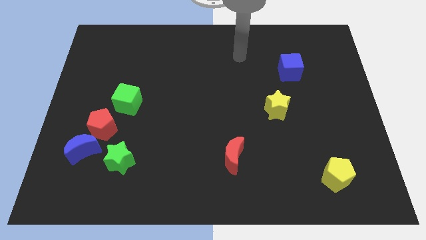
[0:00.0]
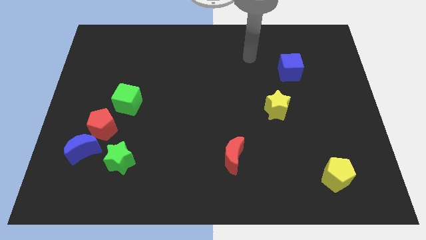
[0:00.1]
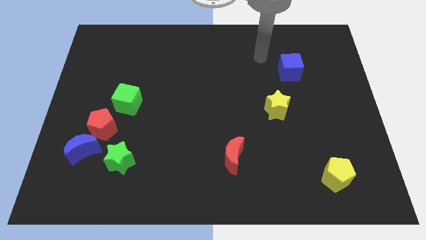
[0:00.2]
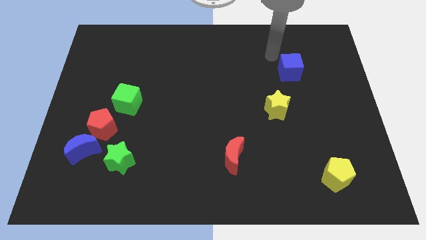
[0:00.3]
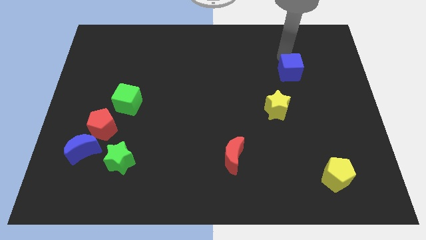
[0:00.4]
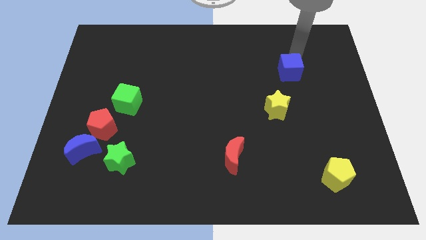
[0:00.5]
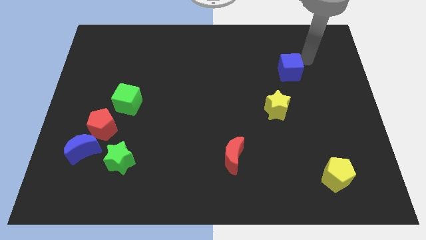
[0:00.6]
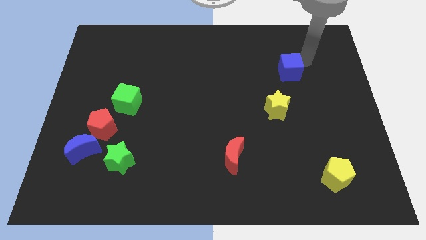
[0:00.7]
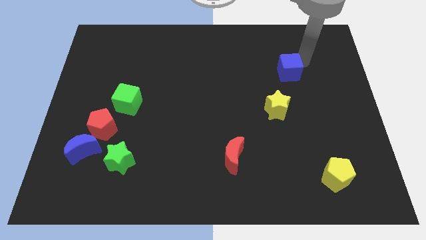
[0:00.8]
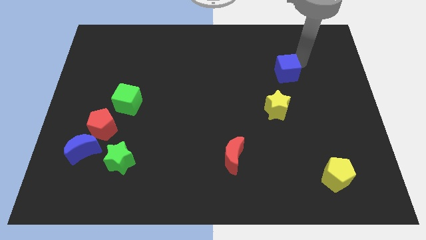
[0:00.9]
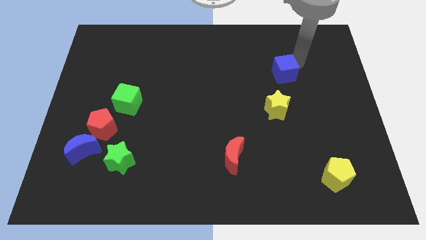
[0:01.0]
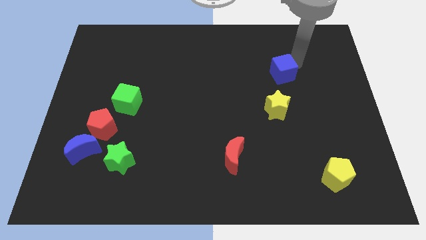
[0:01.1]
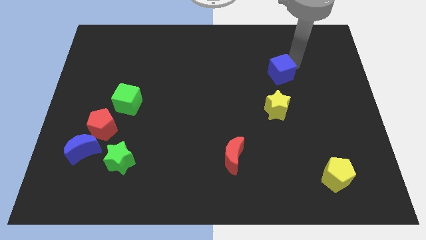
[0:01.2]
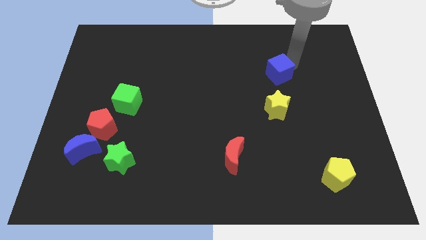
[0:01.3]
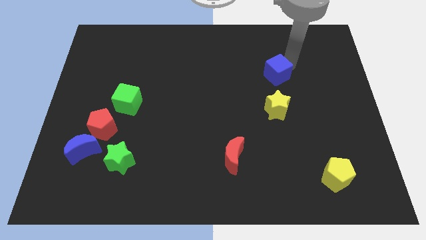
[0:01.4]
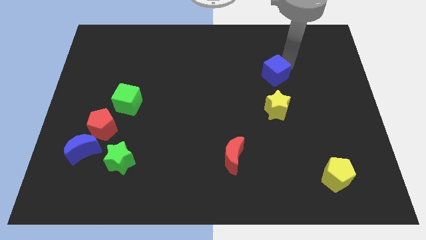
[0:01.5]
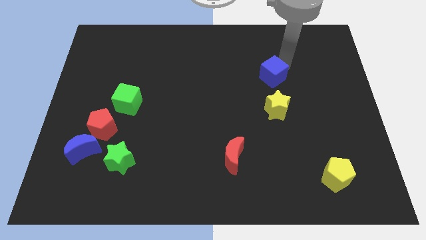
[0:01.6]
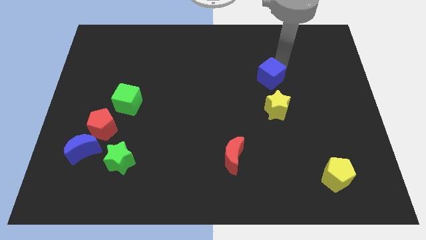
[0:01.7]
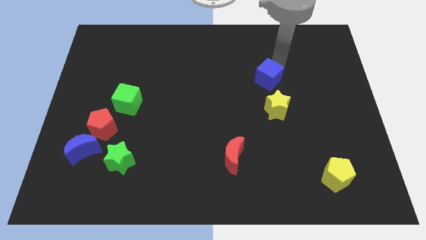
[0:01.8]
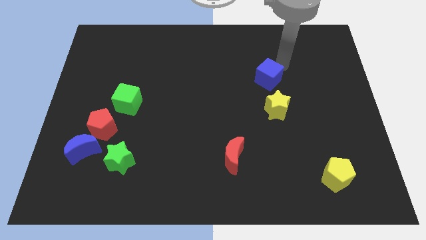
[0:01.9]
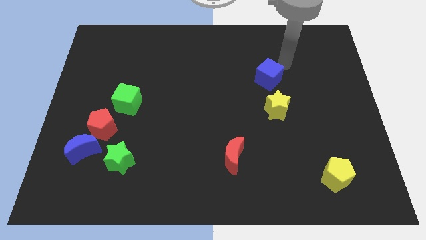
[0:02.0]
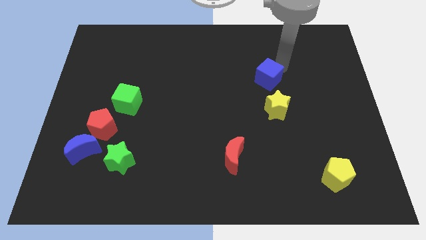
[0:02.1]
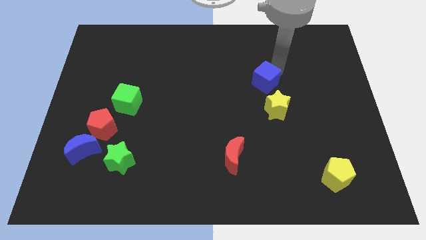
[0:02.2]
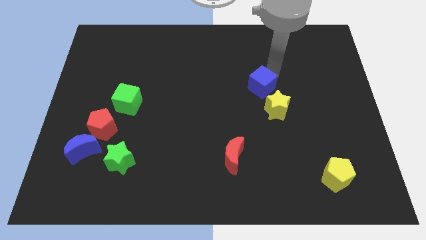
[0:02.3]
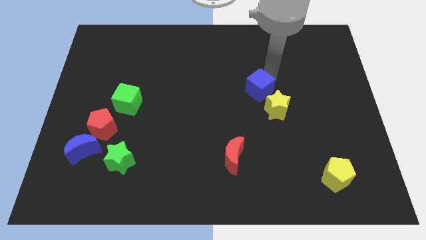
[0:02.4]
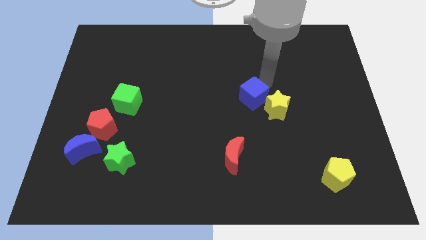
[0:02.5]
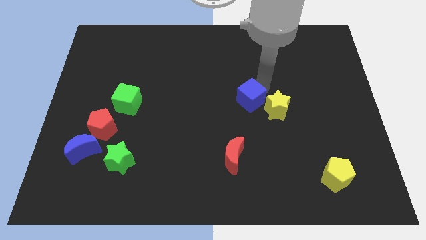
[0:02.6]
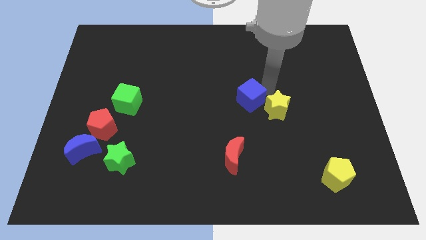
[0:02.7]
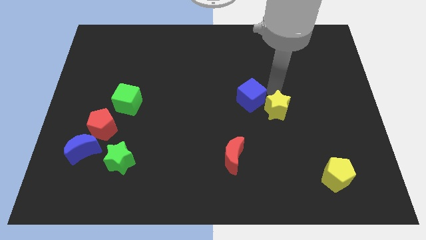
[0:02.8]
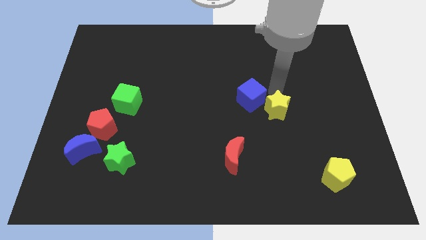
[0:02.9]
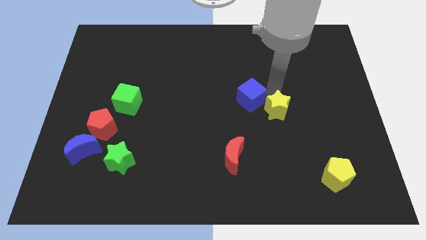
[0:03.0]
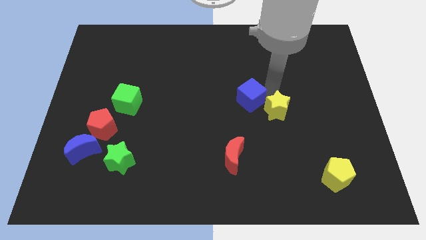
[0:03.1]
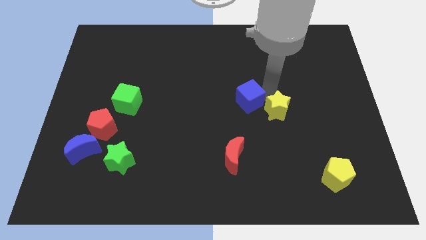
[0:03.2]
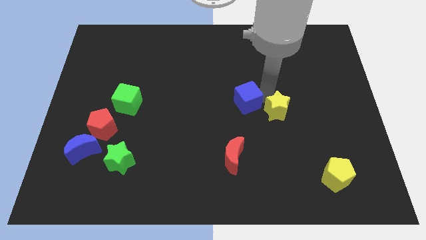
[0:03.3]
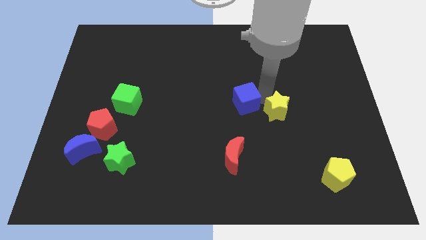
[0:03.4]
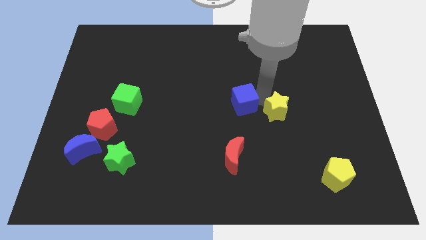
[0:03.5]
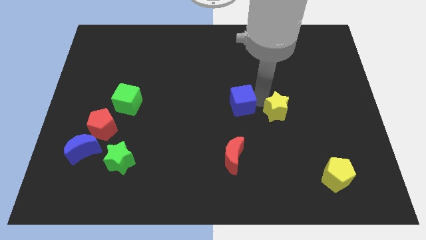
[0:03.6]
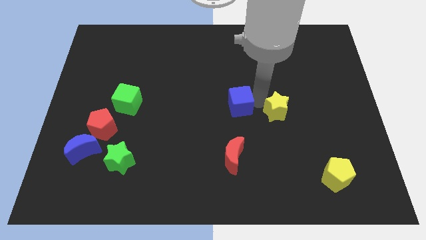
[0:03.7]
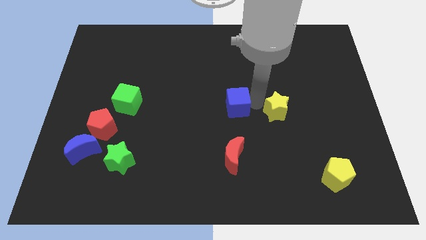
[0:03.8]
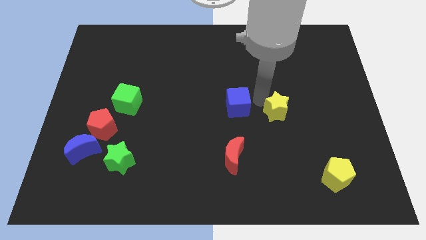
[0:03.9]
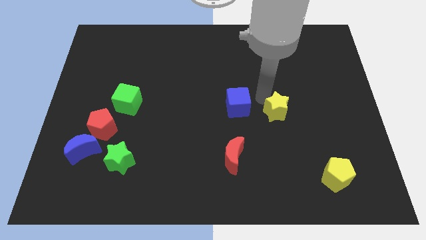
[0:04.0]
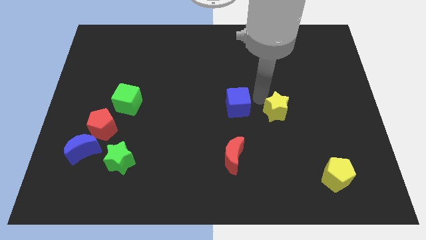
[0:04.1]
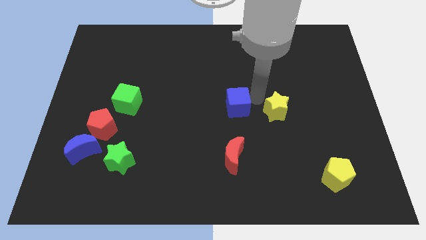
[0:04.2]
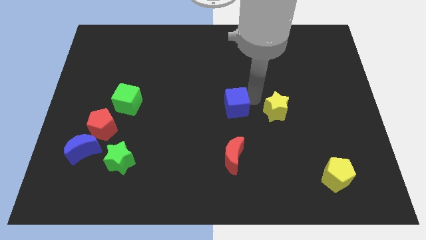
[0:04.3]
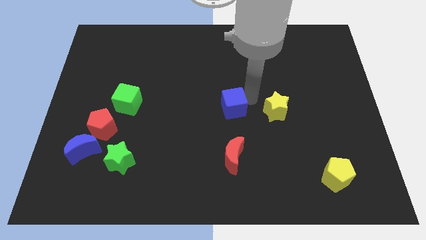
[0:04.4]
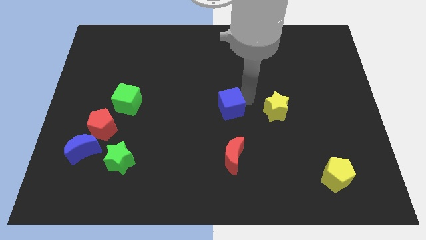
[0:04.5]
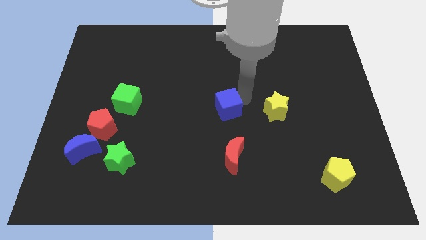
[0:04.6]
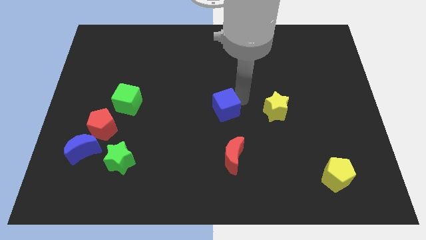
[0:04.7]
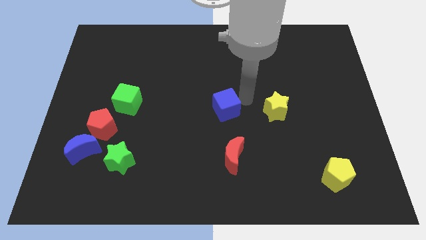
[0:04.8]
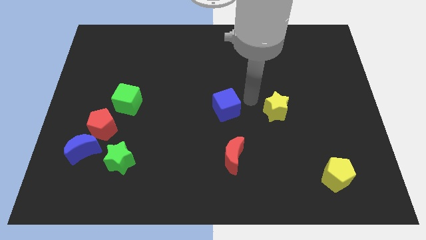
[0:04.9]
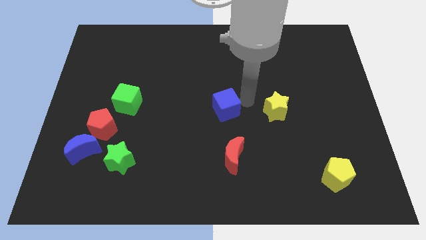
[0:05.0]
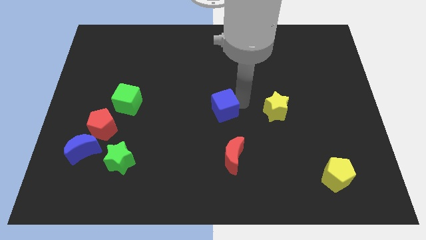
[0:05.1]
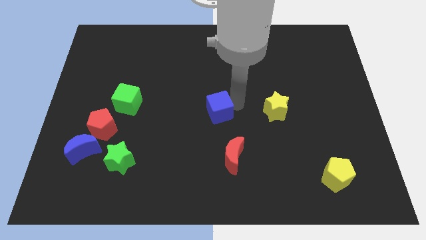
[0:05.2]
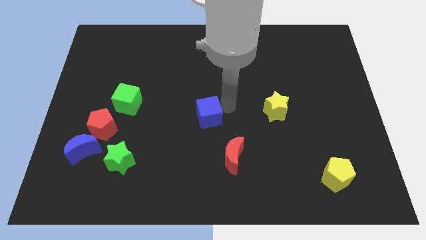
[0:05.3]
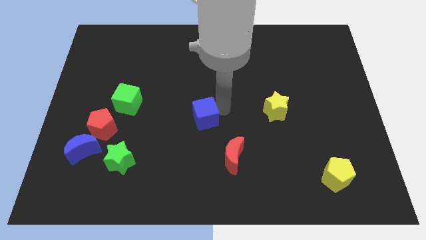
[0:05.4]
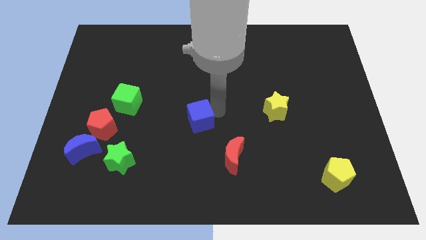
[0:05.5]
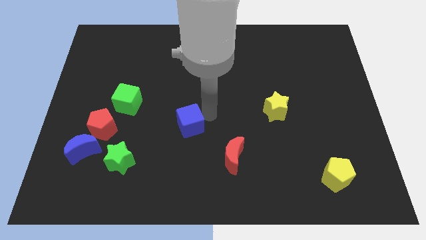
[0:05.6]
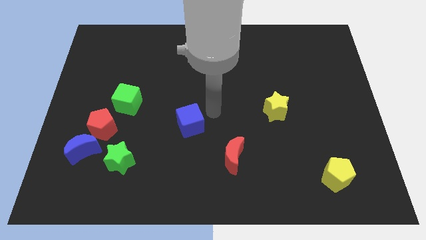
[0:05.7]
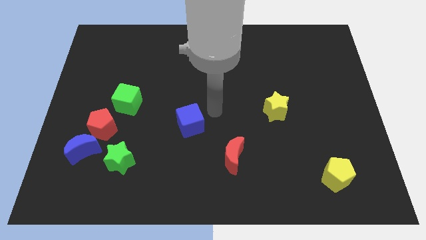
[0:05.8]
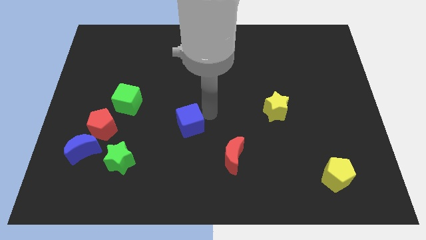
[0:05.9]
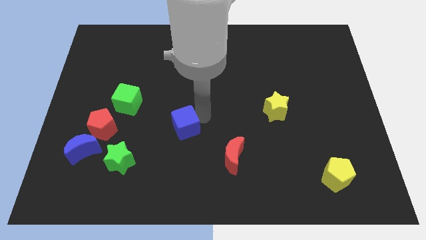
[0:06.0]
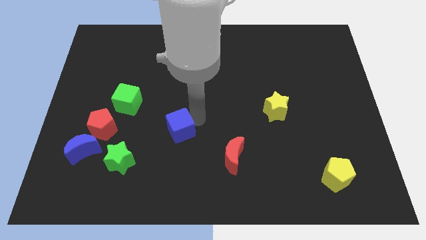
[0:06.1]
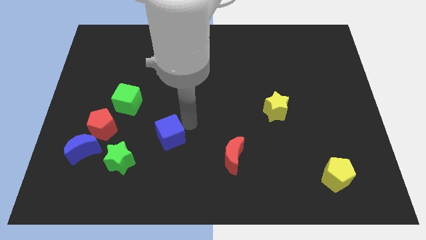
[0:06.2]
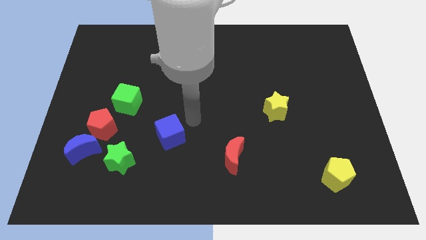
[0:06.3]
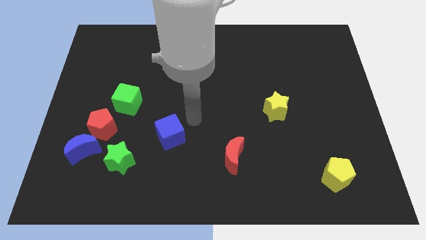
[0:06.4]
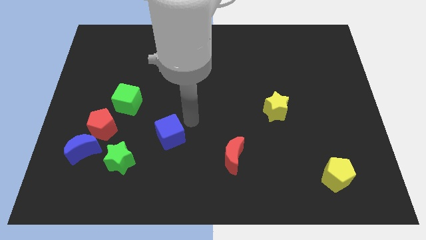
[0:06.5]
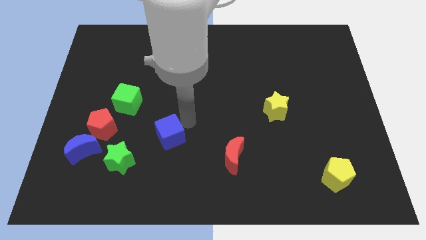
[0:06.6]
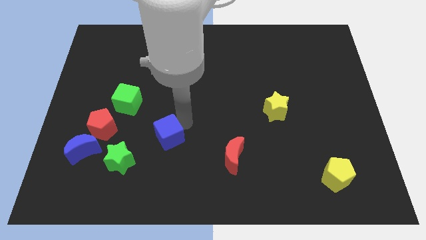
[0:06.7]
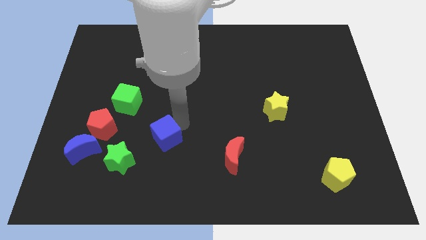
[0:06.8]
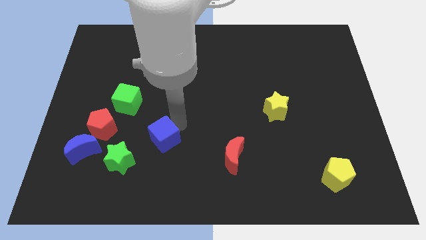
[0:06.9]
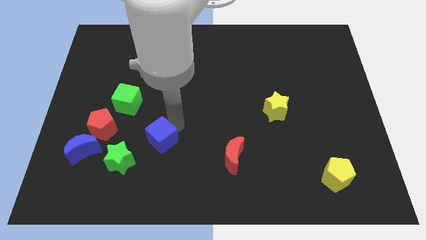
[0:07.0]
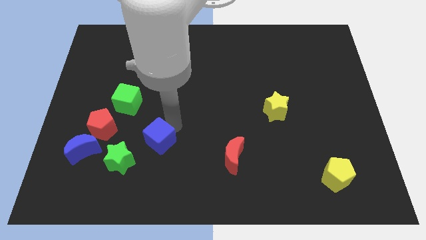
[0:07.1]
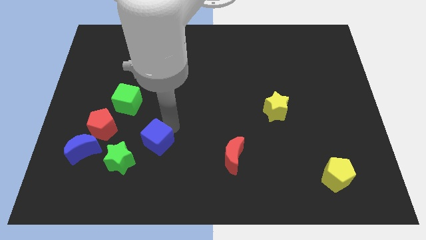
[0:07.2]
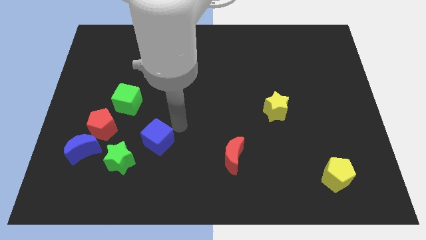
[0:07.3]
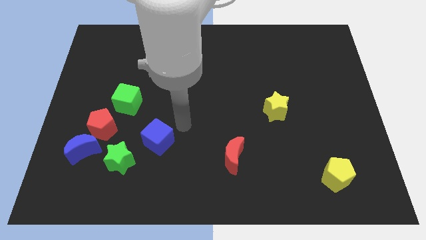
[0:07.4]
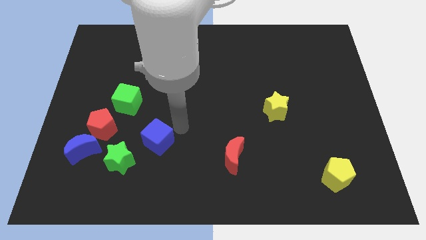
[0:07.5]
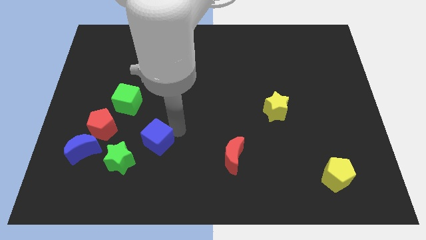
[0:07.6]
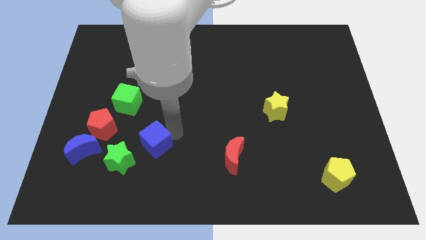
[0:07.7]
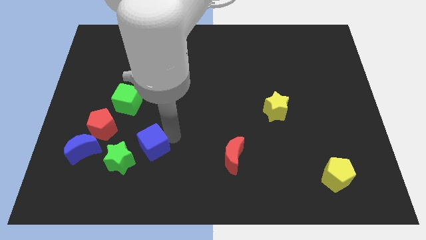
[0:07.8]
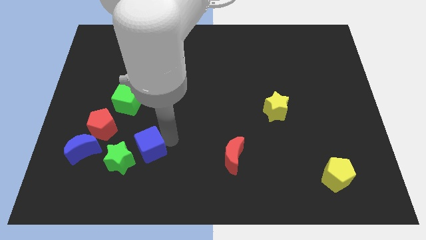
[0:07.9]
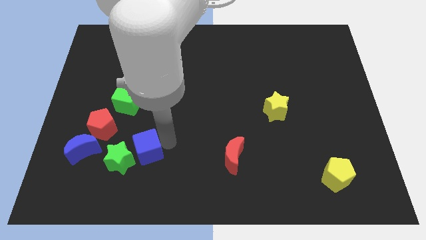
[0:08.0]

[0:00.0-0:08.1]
move the blue cube to the green star
